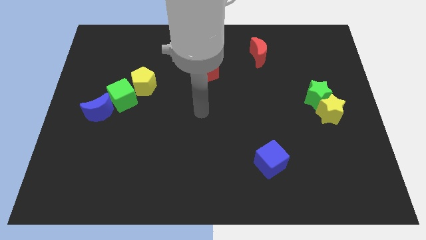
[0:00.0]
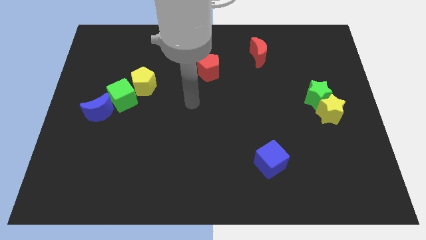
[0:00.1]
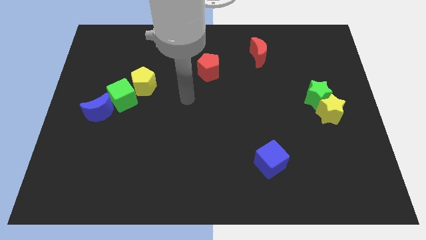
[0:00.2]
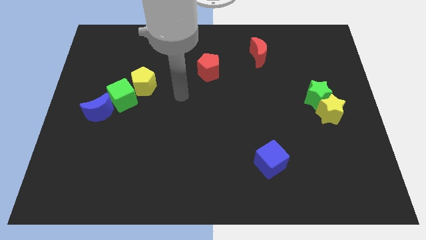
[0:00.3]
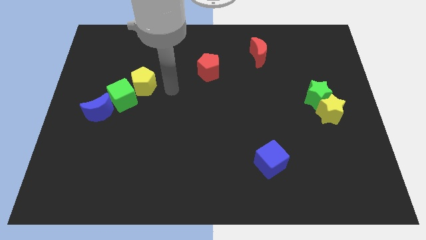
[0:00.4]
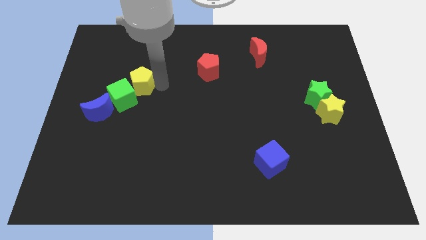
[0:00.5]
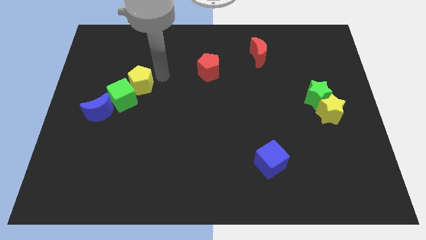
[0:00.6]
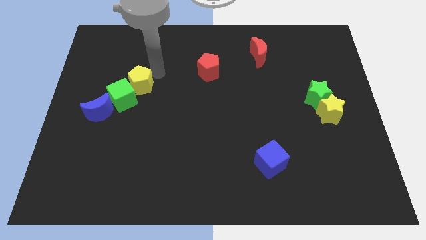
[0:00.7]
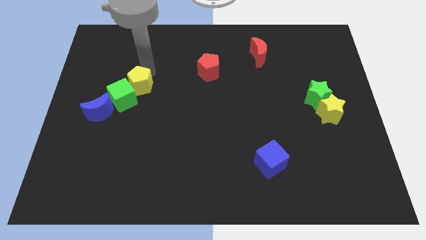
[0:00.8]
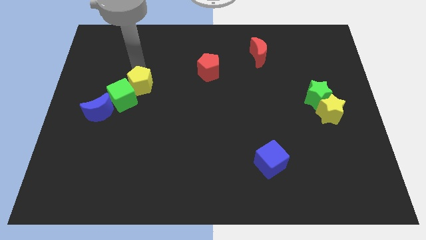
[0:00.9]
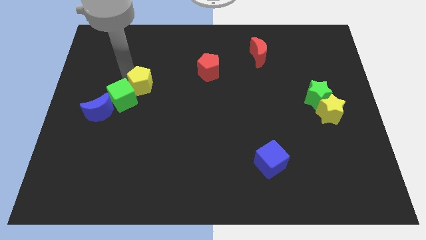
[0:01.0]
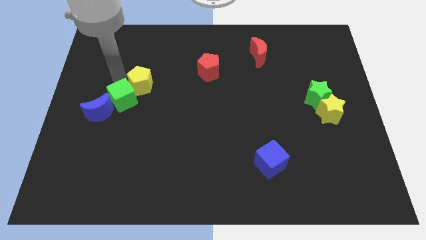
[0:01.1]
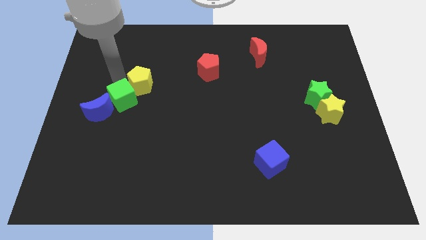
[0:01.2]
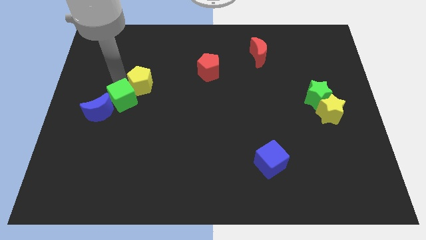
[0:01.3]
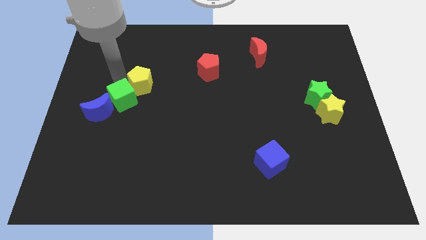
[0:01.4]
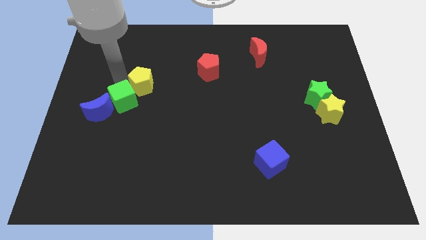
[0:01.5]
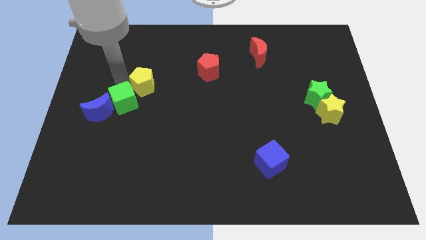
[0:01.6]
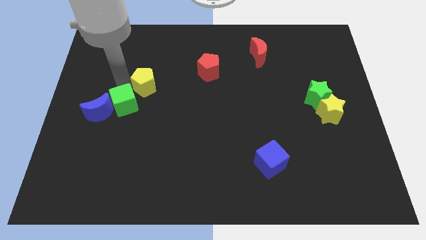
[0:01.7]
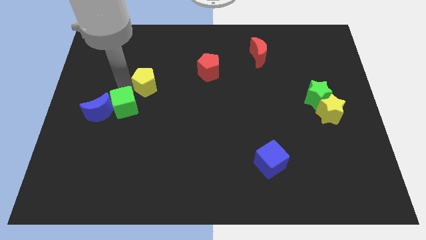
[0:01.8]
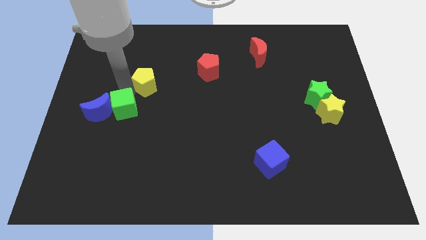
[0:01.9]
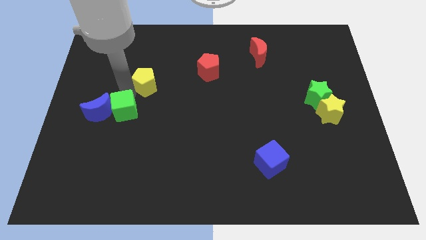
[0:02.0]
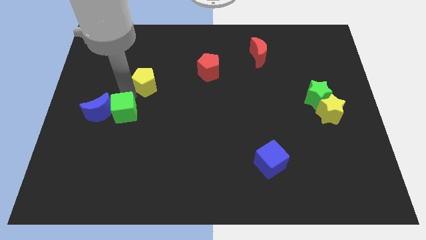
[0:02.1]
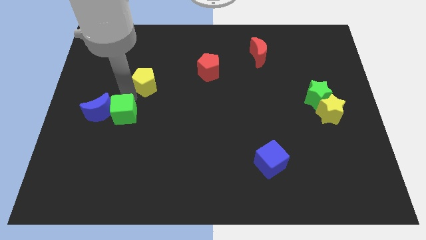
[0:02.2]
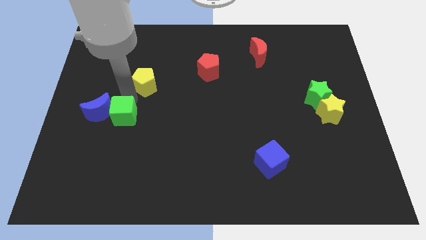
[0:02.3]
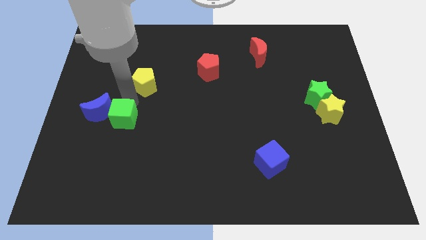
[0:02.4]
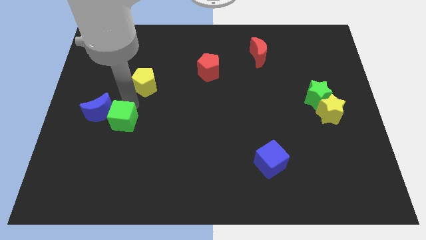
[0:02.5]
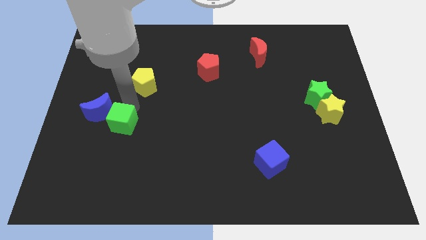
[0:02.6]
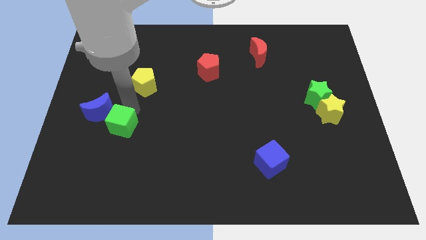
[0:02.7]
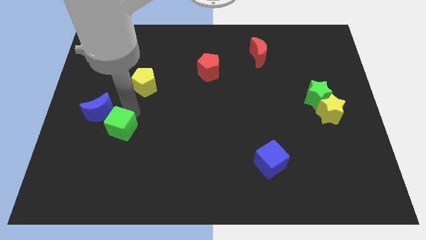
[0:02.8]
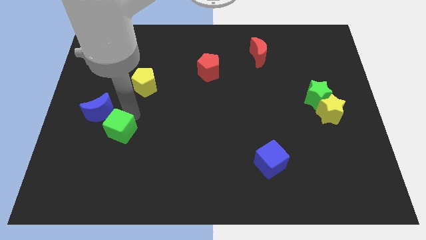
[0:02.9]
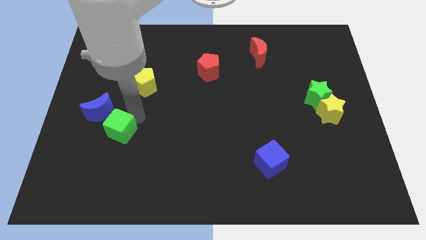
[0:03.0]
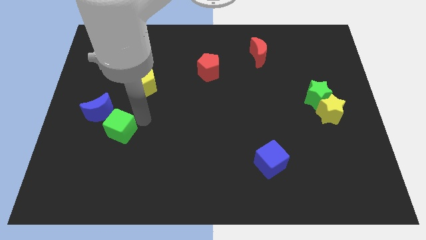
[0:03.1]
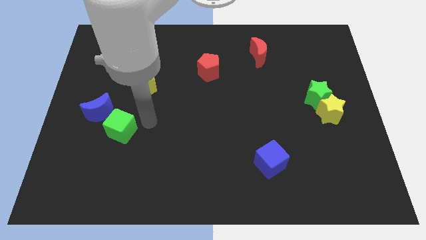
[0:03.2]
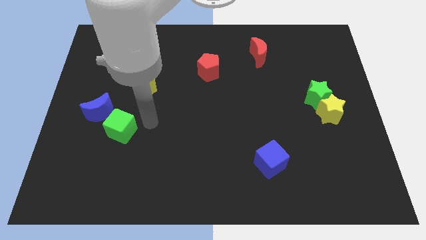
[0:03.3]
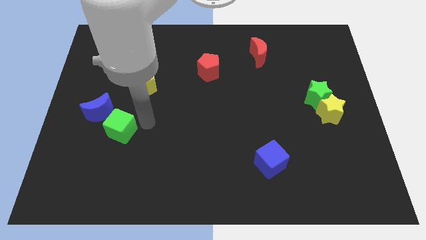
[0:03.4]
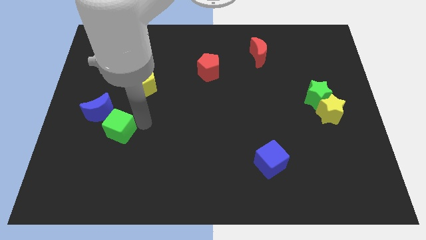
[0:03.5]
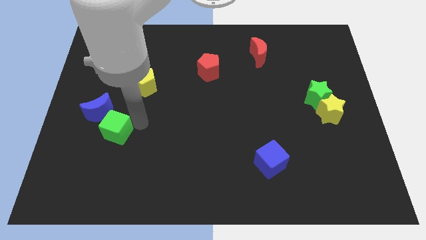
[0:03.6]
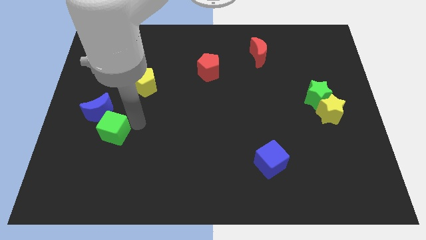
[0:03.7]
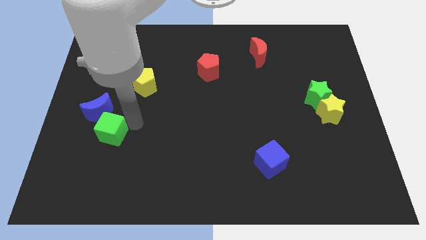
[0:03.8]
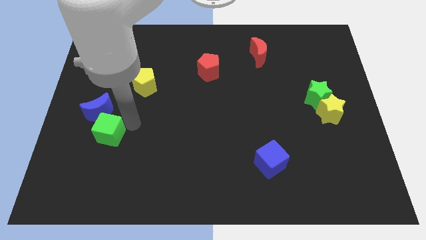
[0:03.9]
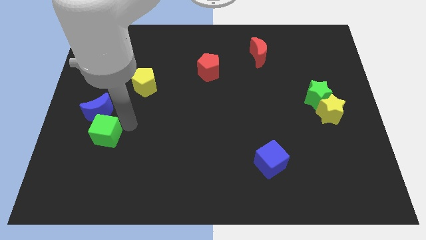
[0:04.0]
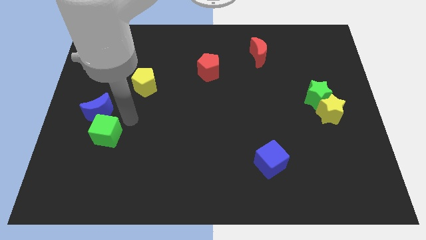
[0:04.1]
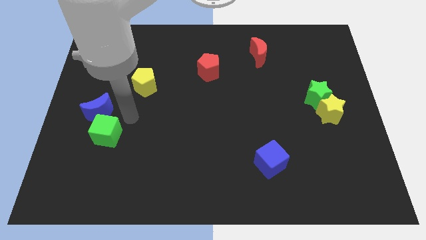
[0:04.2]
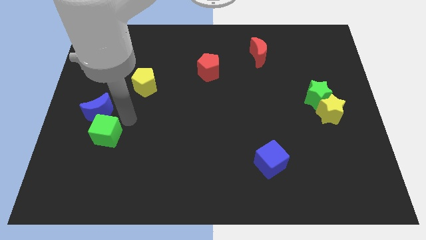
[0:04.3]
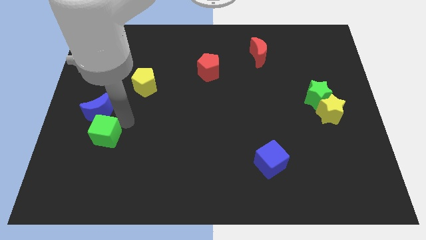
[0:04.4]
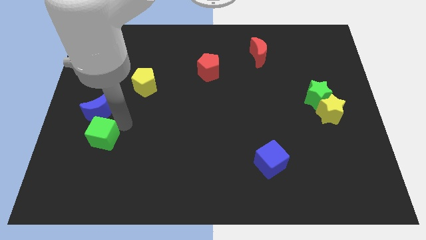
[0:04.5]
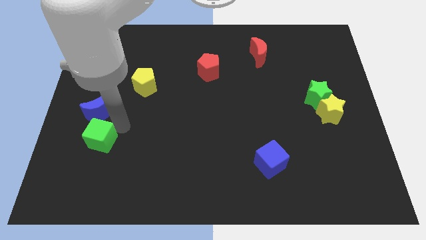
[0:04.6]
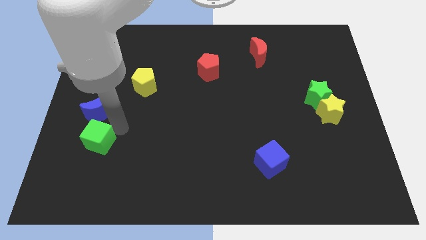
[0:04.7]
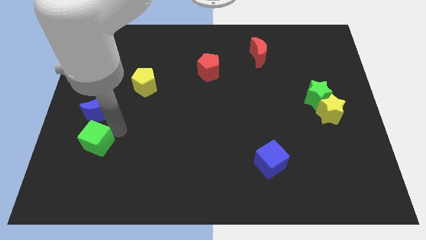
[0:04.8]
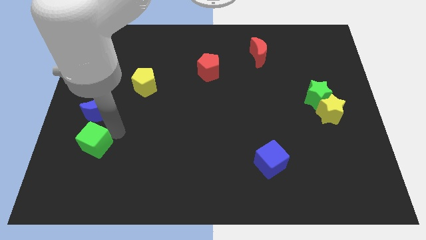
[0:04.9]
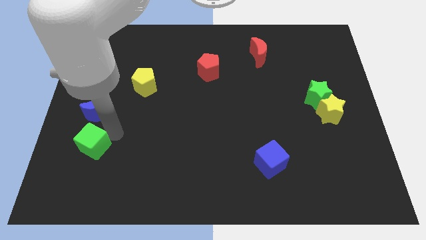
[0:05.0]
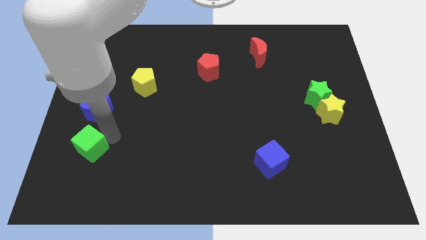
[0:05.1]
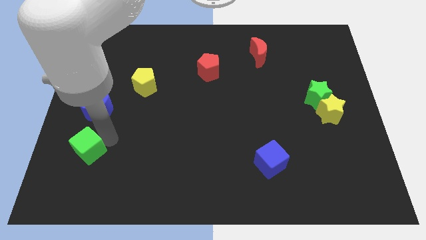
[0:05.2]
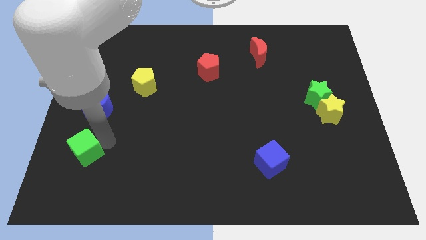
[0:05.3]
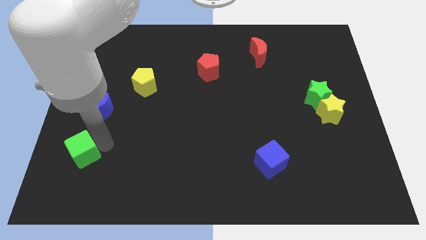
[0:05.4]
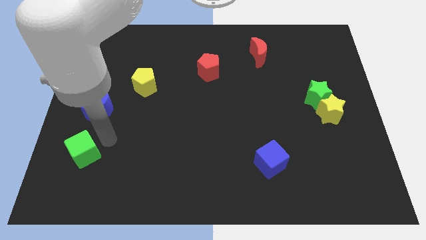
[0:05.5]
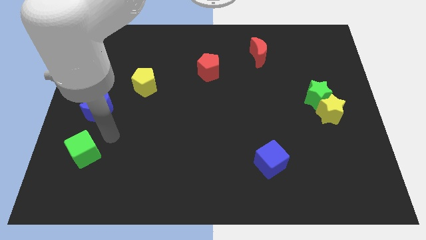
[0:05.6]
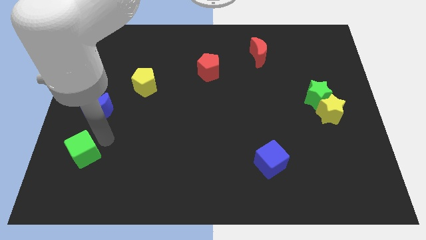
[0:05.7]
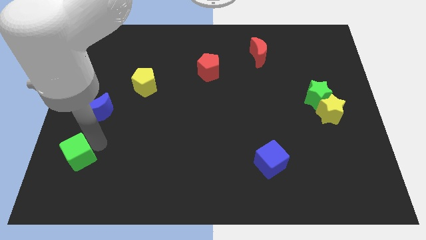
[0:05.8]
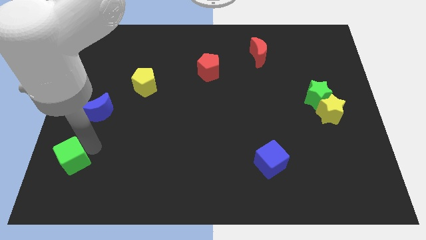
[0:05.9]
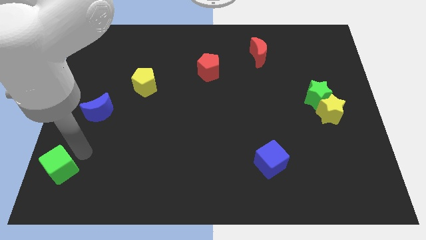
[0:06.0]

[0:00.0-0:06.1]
put the green cube to the bottom left
